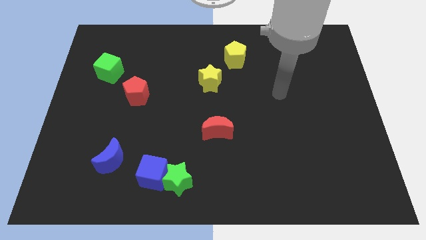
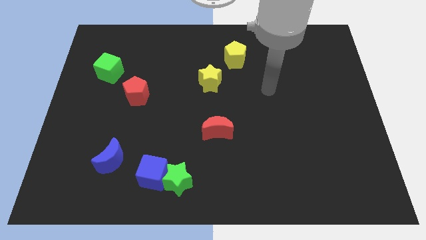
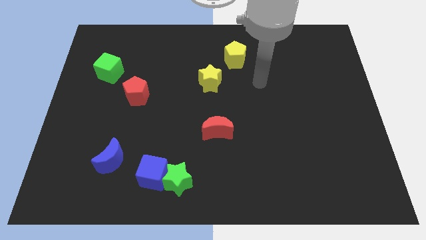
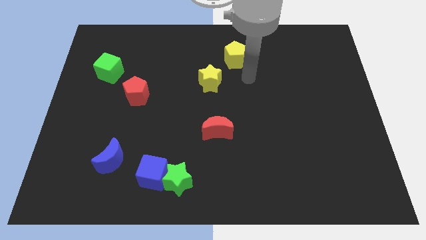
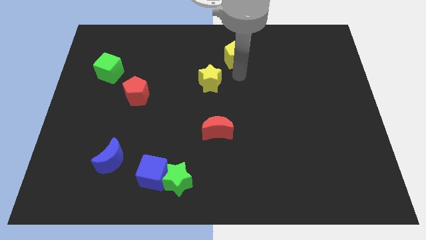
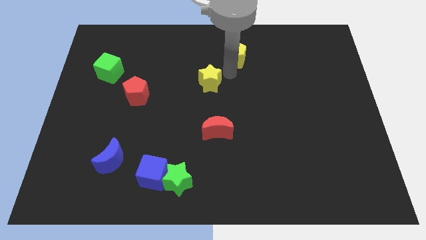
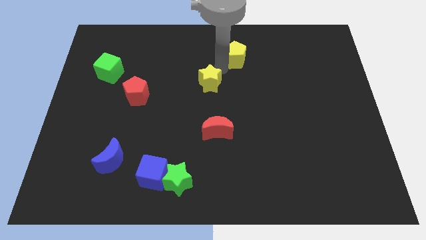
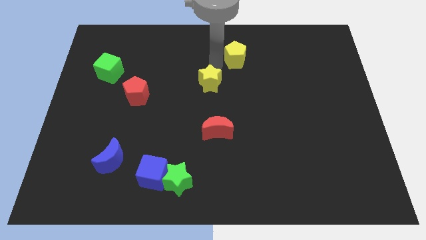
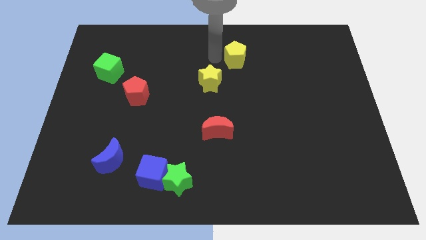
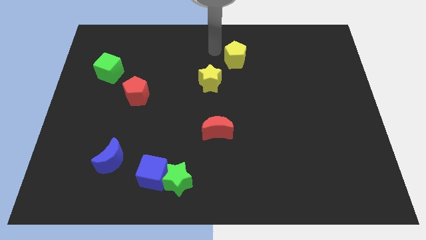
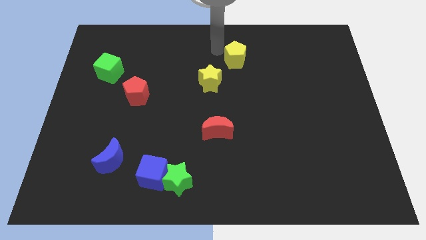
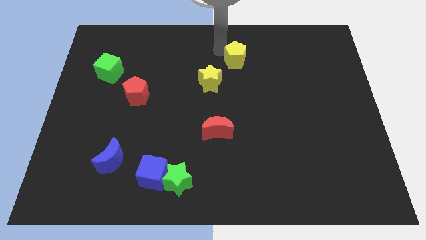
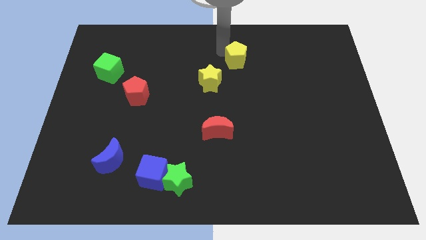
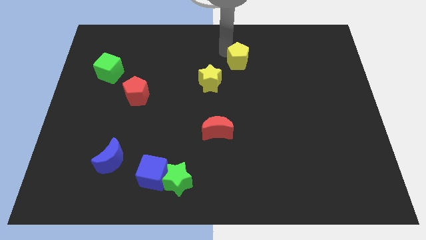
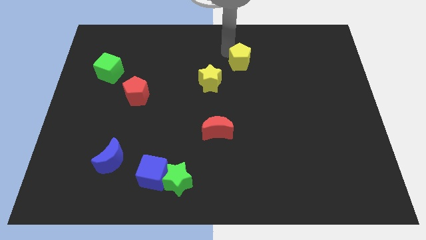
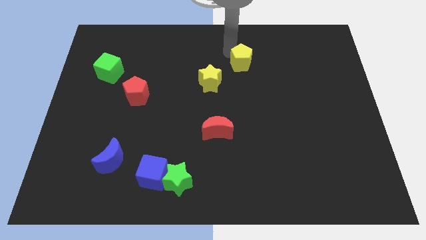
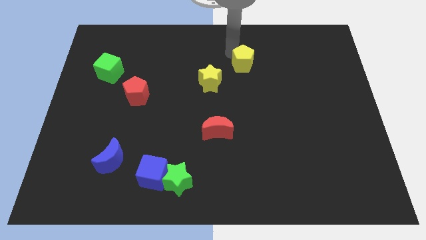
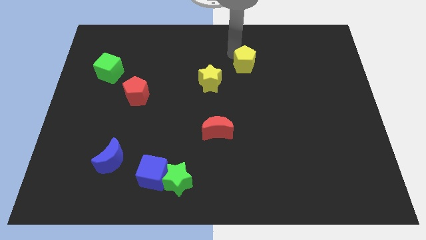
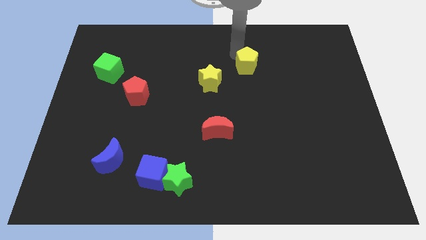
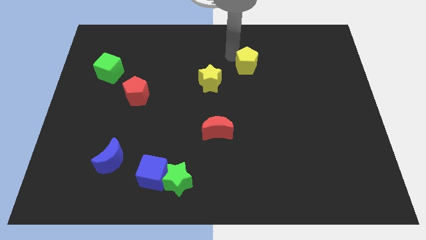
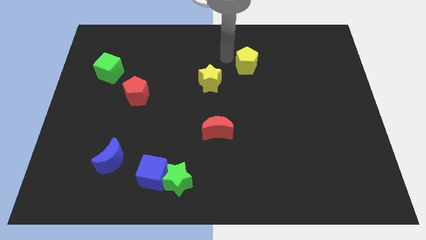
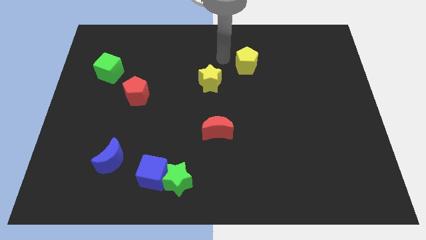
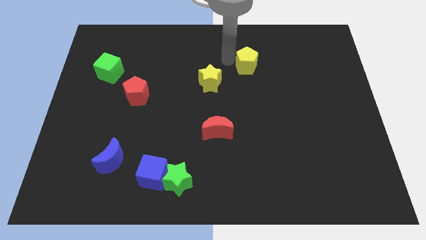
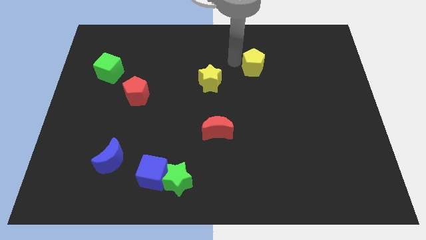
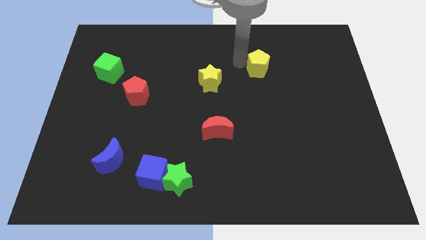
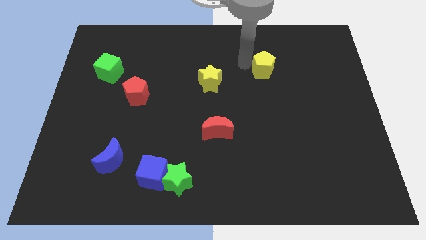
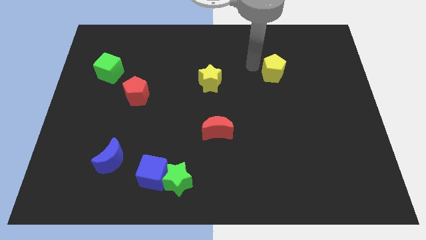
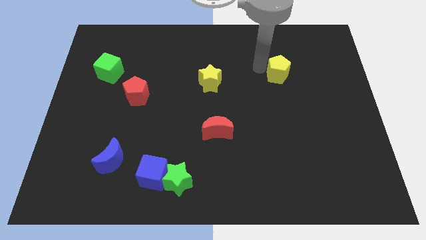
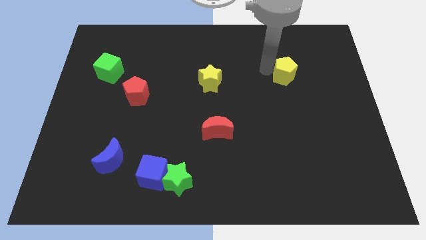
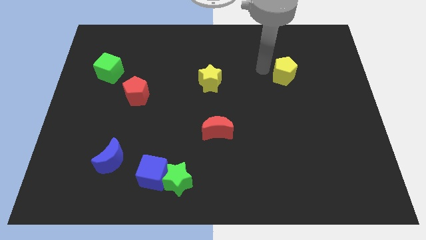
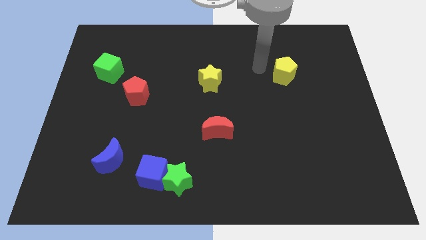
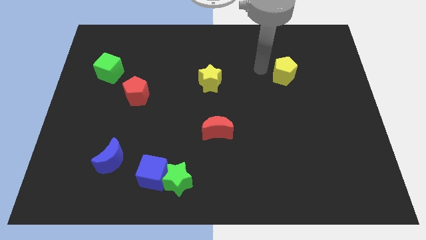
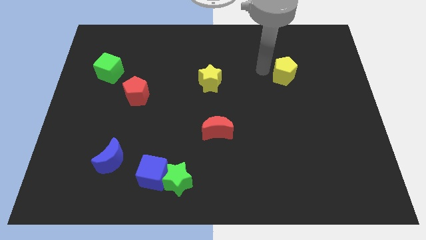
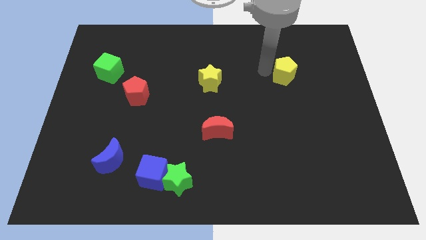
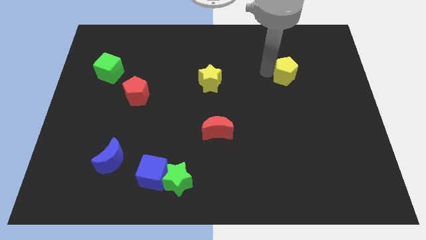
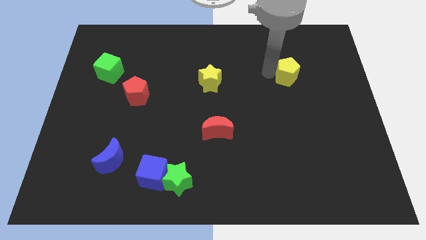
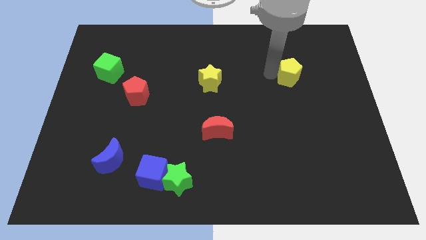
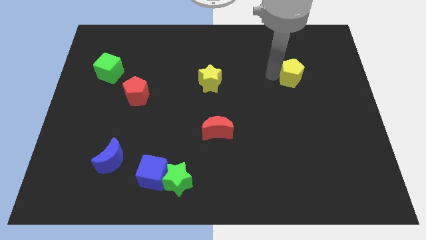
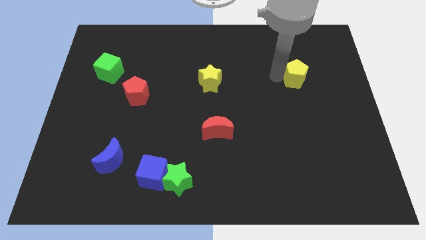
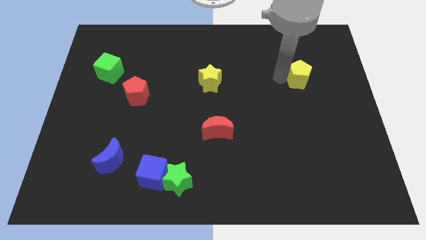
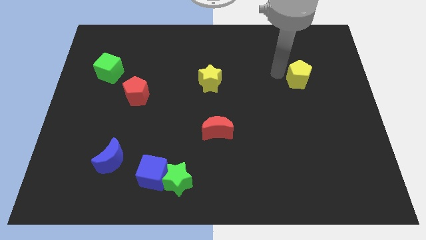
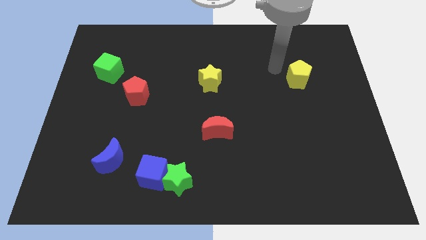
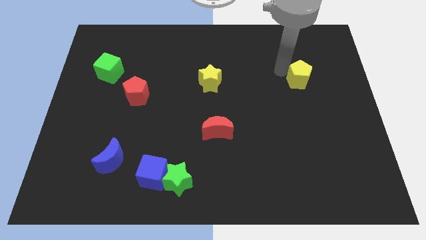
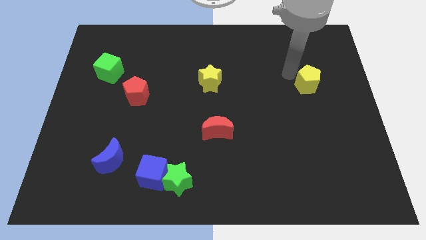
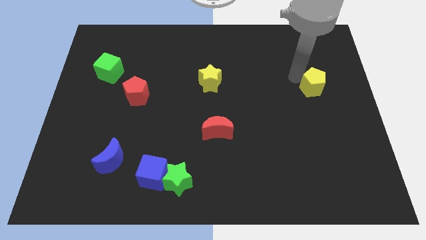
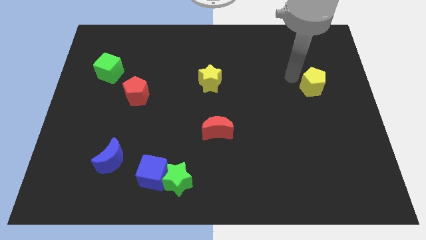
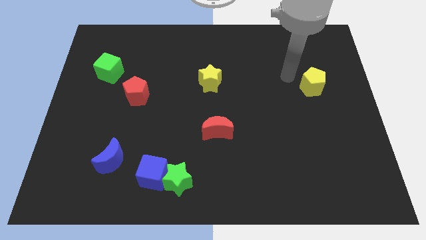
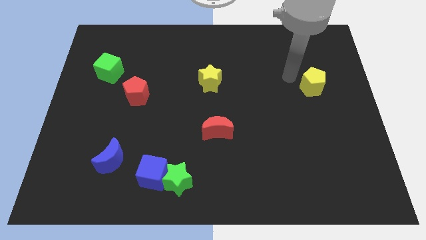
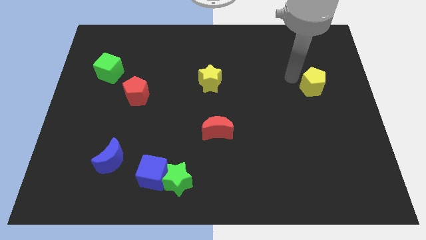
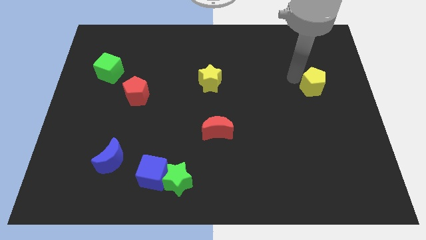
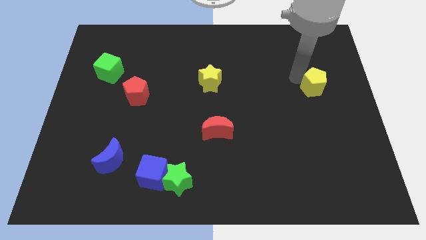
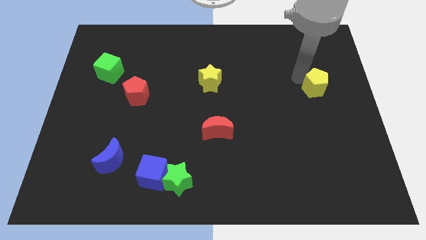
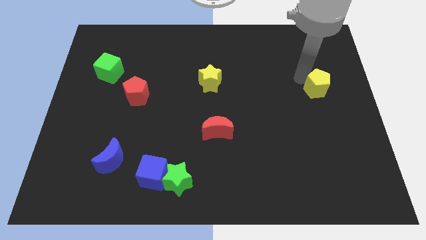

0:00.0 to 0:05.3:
put the yellow pentagon to the right side of the board
